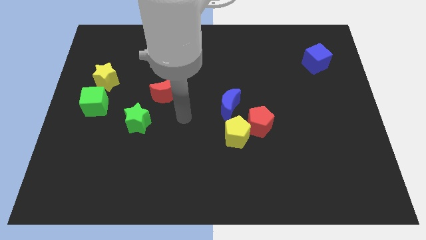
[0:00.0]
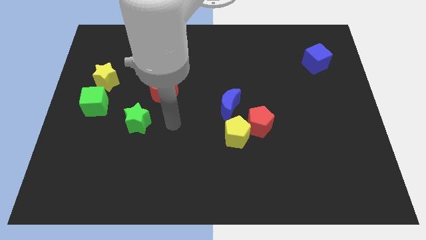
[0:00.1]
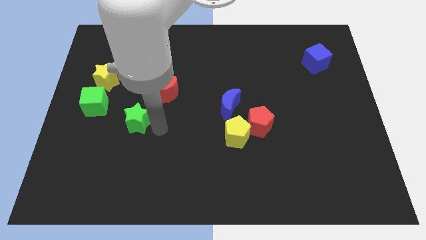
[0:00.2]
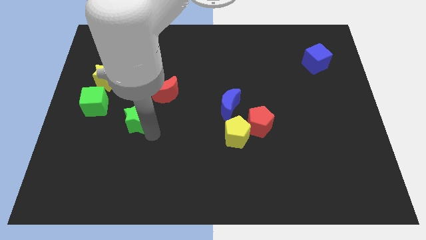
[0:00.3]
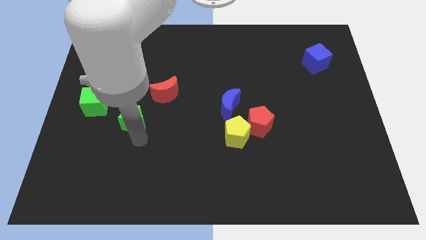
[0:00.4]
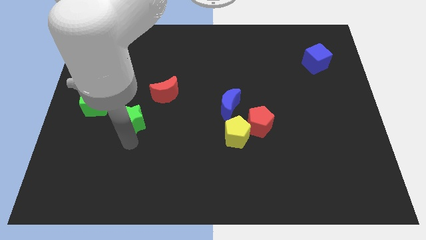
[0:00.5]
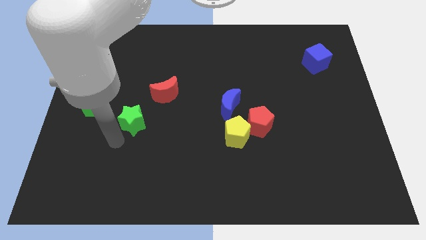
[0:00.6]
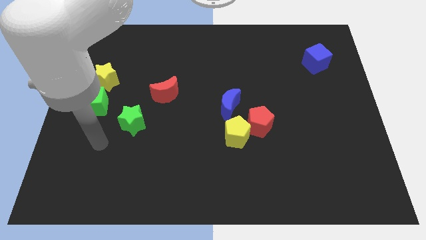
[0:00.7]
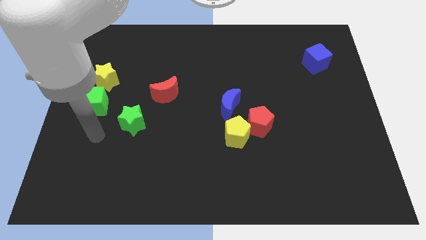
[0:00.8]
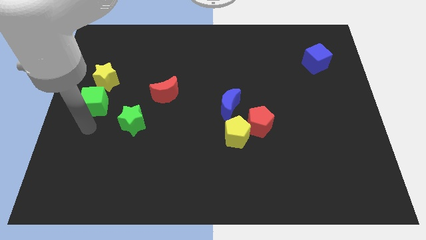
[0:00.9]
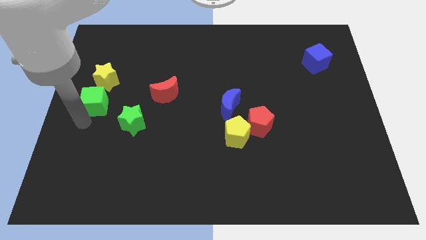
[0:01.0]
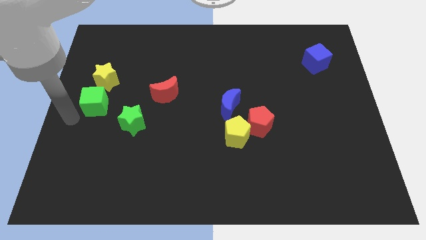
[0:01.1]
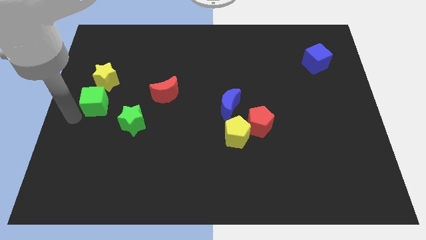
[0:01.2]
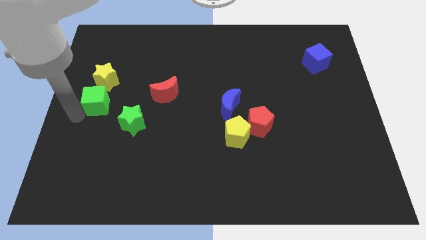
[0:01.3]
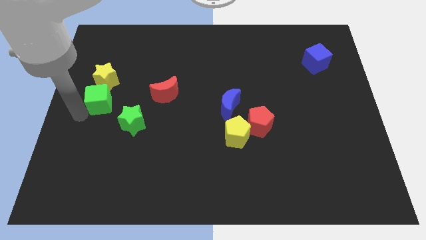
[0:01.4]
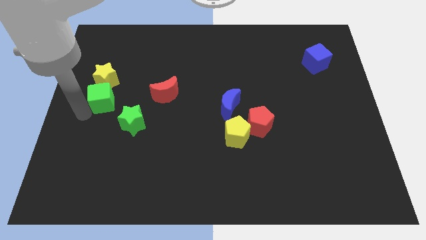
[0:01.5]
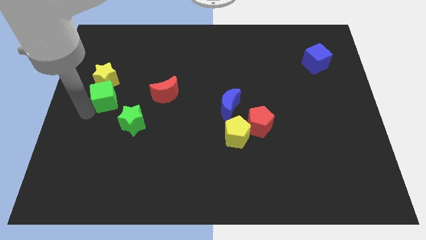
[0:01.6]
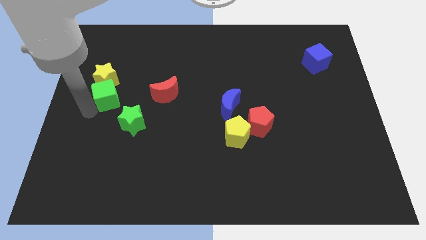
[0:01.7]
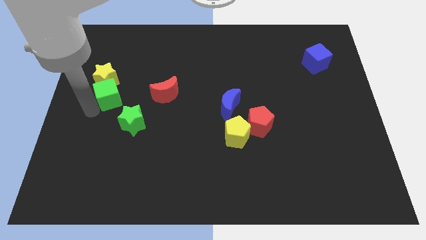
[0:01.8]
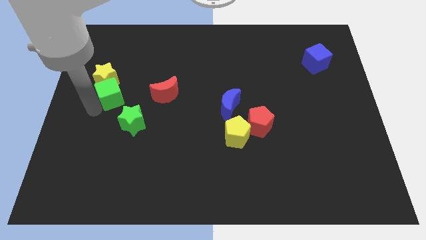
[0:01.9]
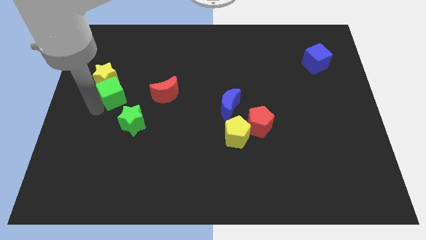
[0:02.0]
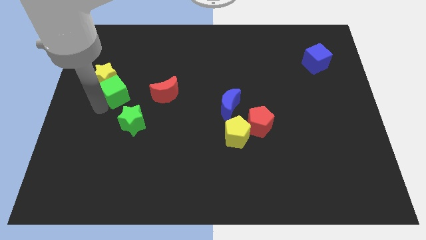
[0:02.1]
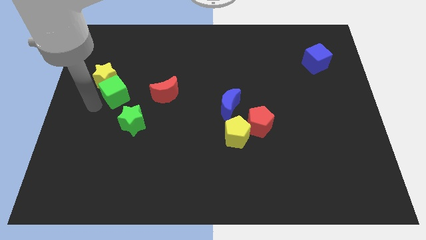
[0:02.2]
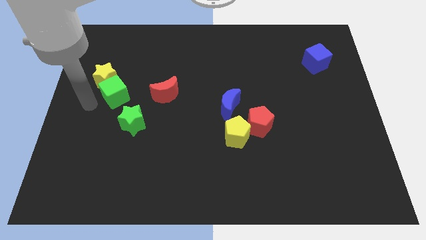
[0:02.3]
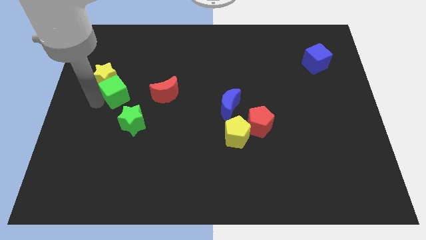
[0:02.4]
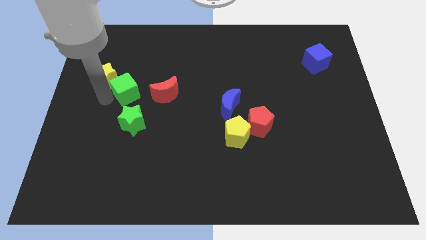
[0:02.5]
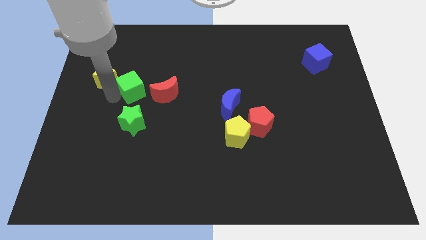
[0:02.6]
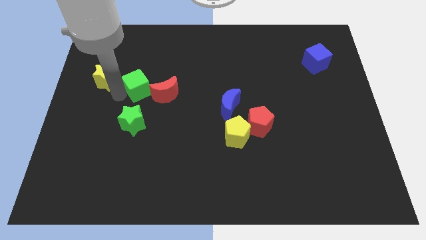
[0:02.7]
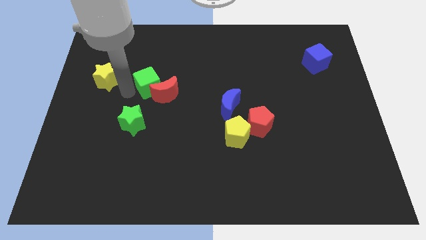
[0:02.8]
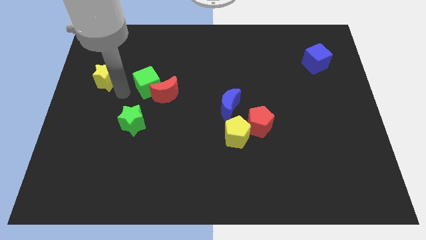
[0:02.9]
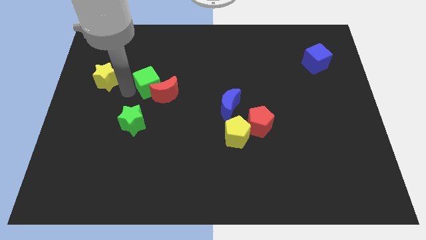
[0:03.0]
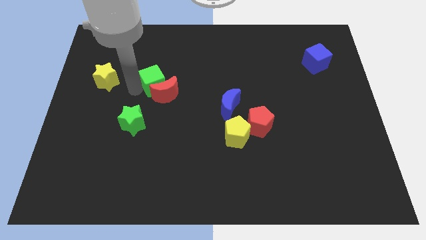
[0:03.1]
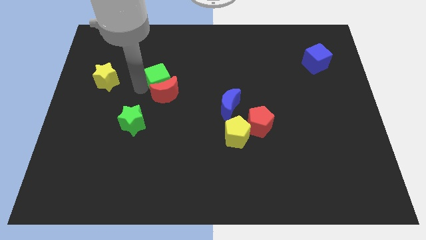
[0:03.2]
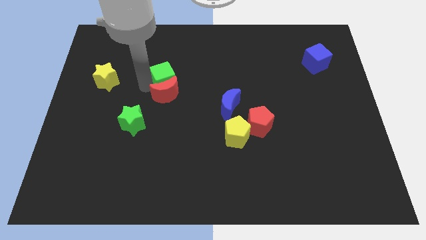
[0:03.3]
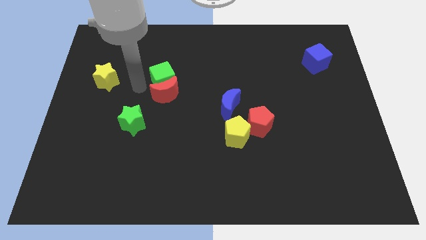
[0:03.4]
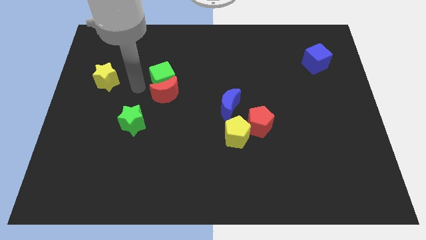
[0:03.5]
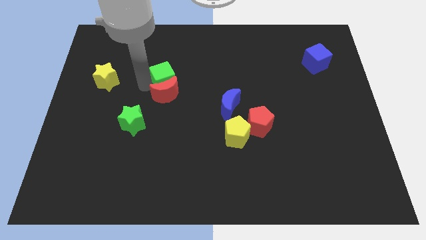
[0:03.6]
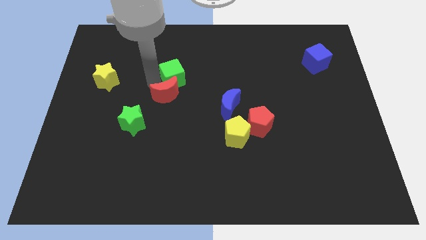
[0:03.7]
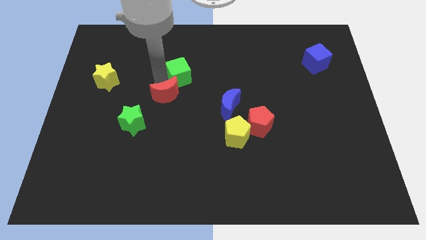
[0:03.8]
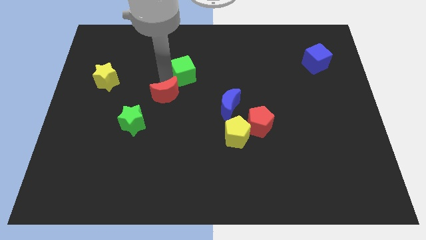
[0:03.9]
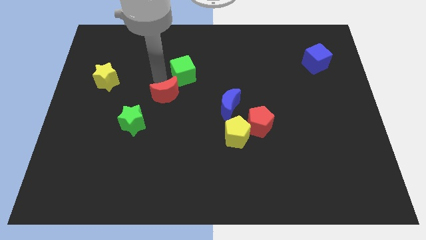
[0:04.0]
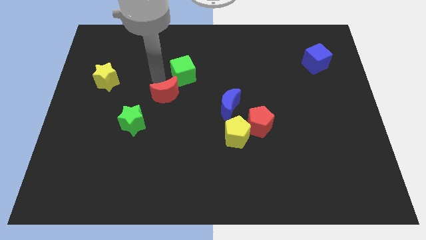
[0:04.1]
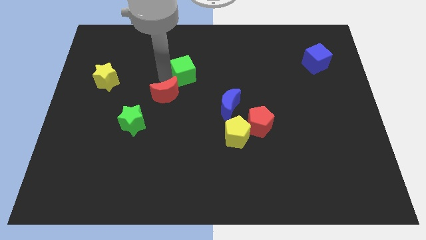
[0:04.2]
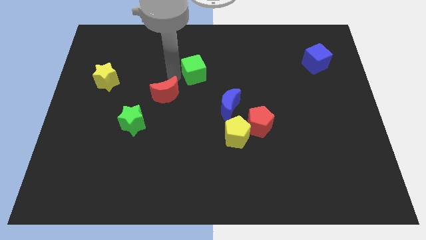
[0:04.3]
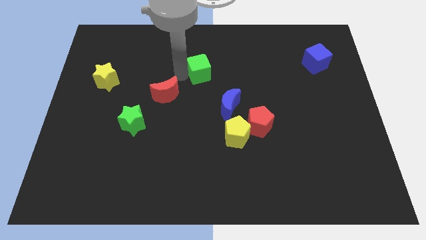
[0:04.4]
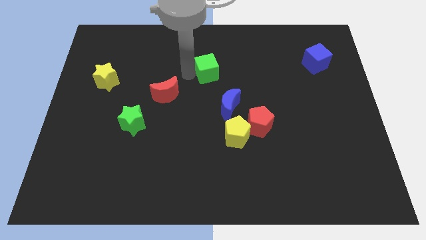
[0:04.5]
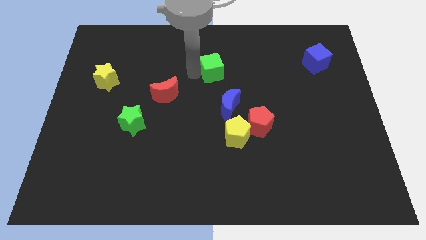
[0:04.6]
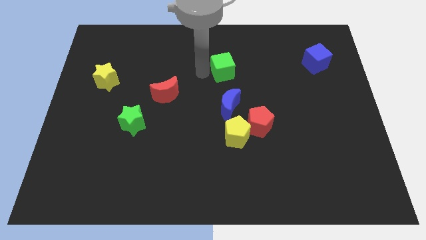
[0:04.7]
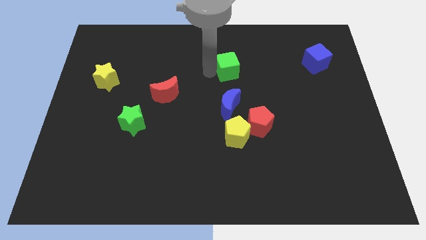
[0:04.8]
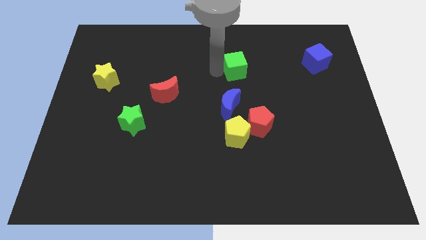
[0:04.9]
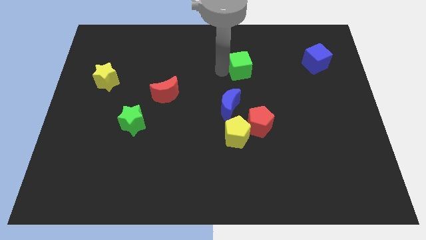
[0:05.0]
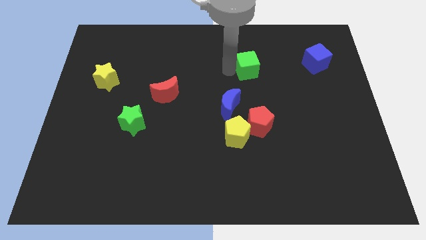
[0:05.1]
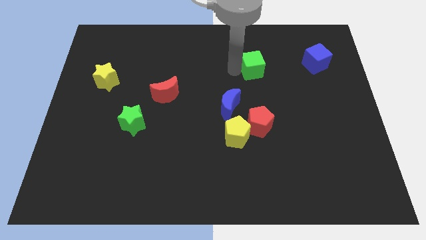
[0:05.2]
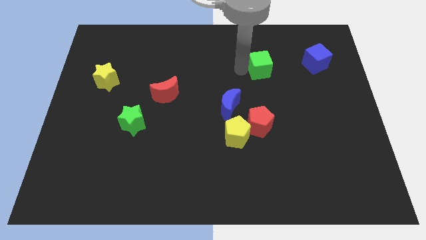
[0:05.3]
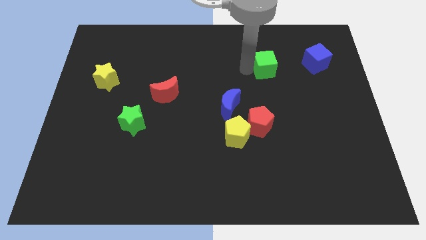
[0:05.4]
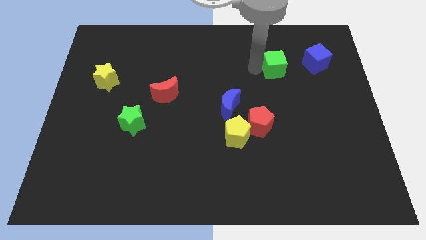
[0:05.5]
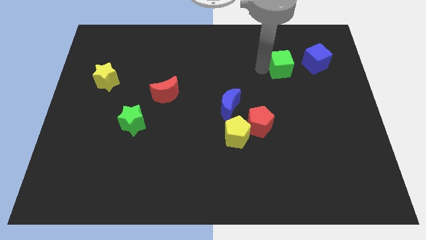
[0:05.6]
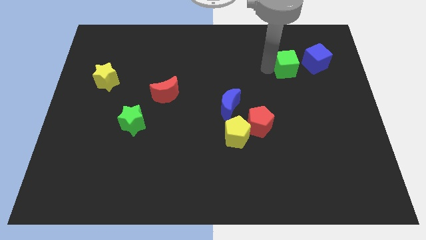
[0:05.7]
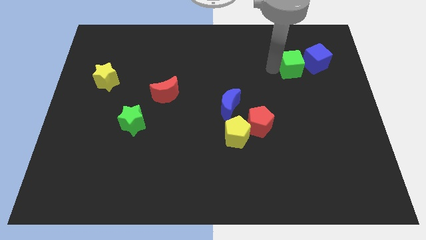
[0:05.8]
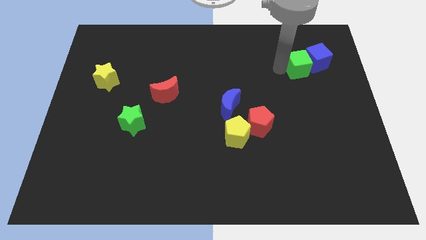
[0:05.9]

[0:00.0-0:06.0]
slide the green cube next to the blue cube

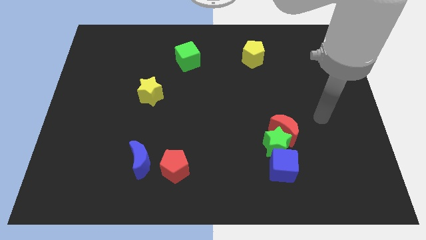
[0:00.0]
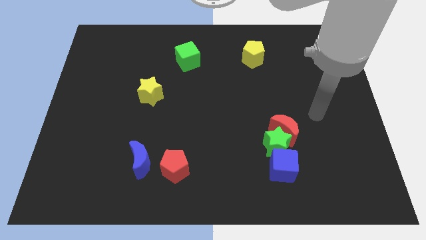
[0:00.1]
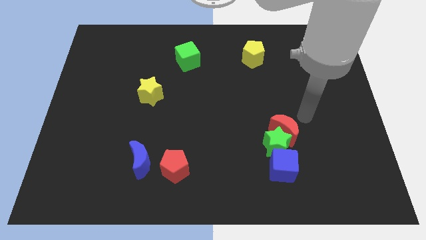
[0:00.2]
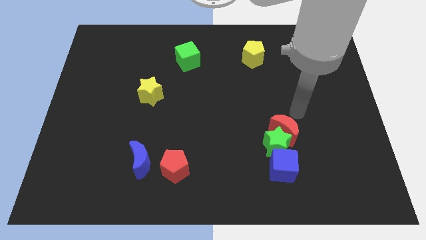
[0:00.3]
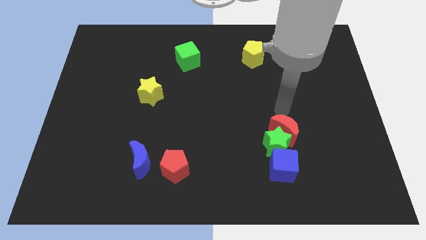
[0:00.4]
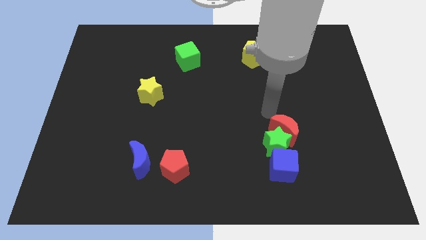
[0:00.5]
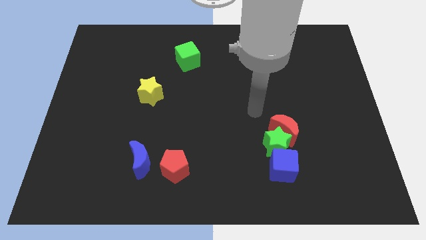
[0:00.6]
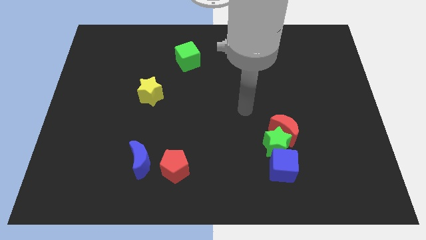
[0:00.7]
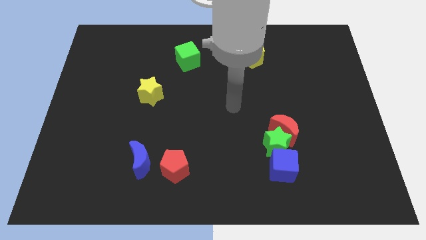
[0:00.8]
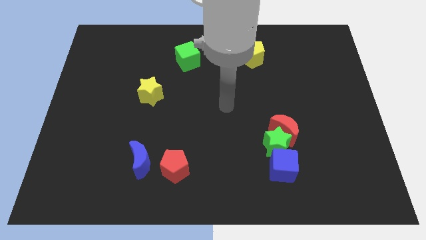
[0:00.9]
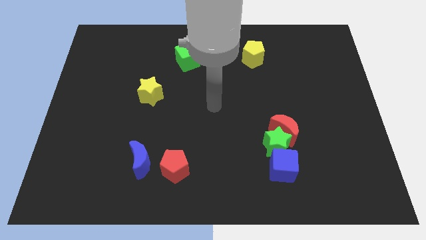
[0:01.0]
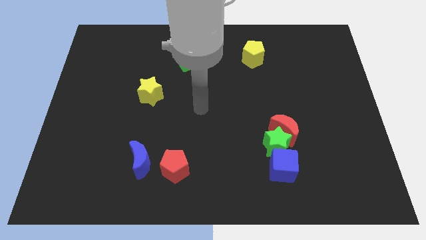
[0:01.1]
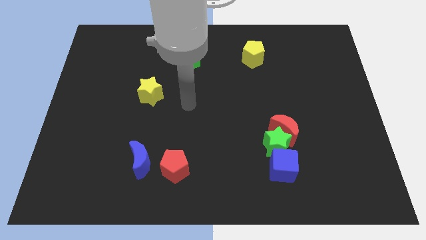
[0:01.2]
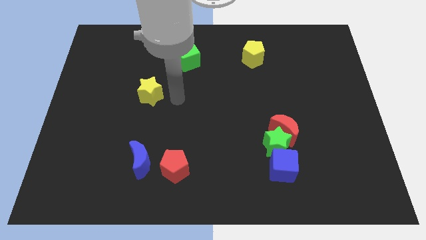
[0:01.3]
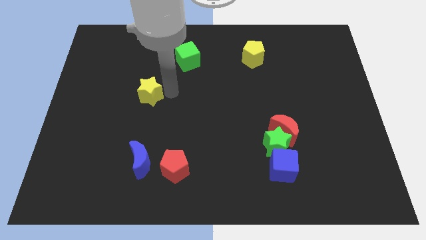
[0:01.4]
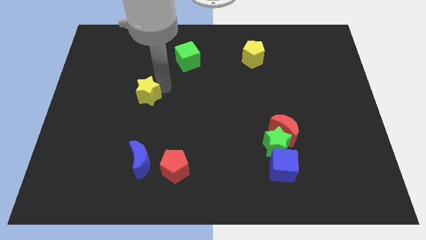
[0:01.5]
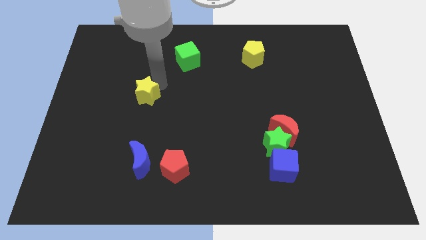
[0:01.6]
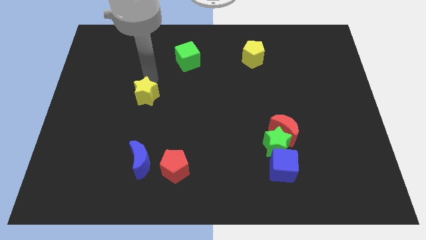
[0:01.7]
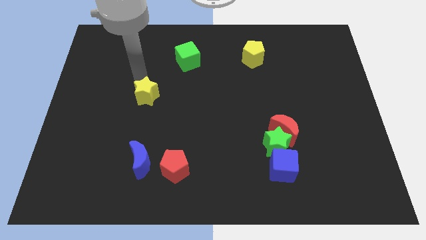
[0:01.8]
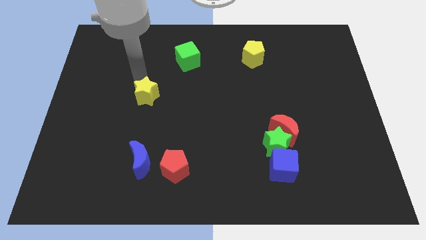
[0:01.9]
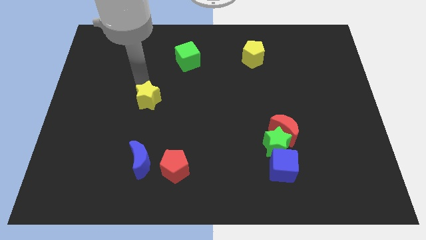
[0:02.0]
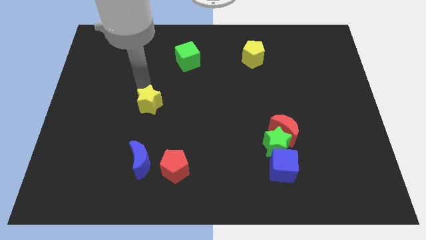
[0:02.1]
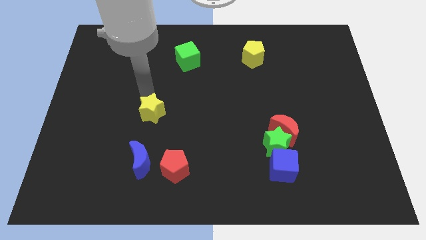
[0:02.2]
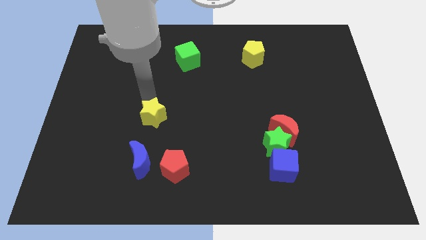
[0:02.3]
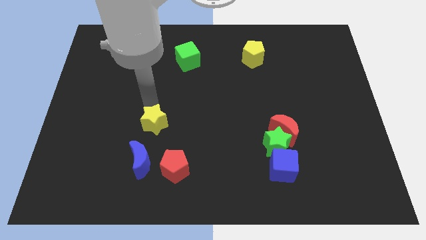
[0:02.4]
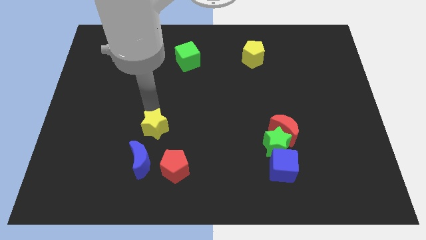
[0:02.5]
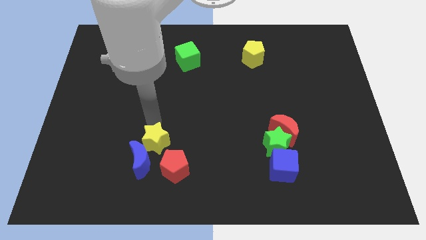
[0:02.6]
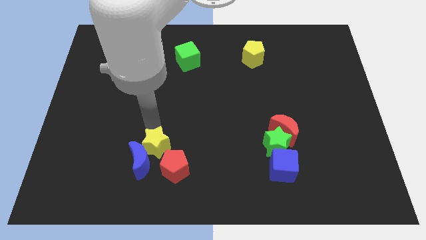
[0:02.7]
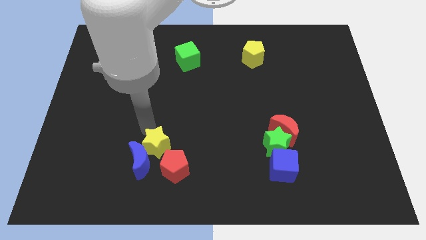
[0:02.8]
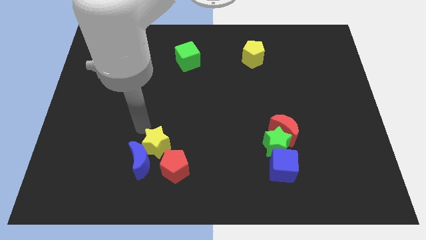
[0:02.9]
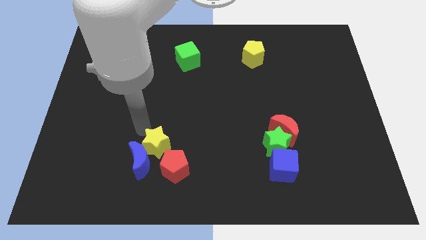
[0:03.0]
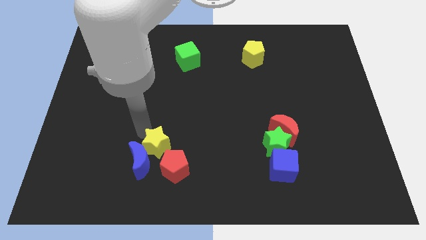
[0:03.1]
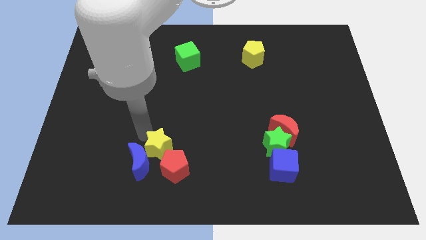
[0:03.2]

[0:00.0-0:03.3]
push the yellow star next to the red pentagon
